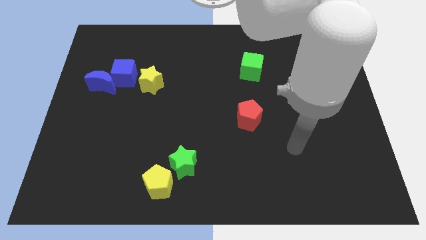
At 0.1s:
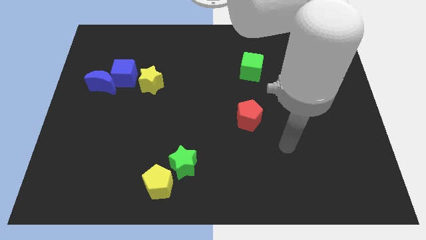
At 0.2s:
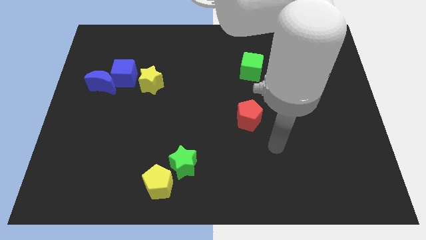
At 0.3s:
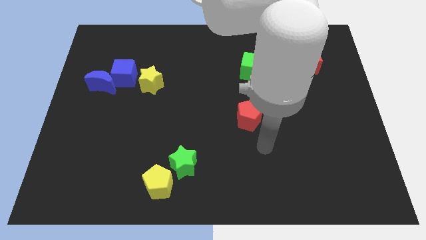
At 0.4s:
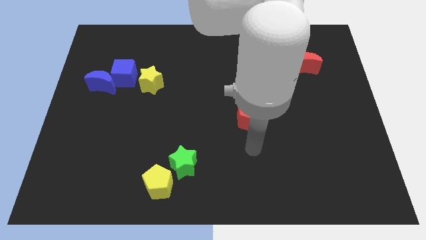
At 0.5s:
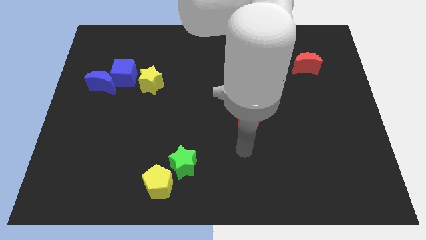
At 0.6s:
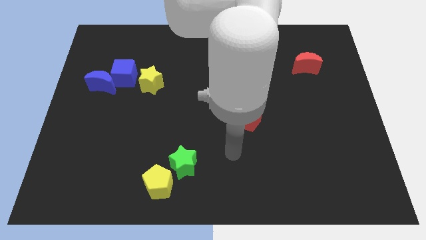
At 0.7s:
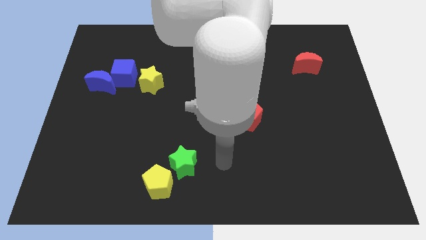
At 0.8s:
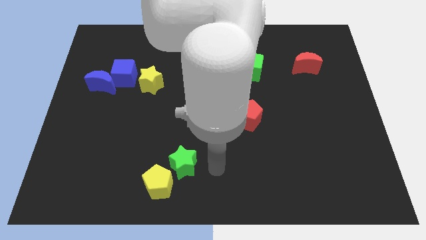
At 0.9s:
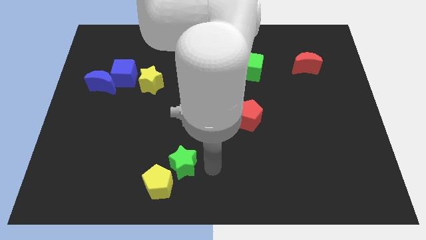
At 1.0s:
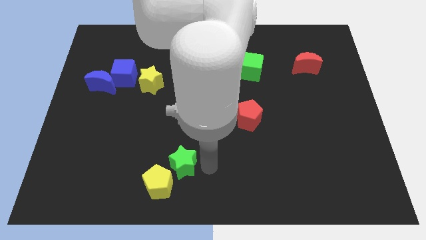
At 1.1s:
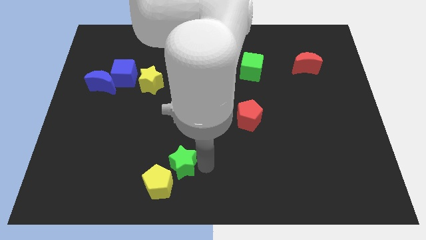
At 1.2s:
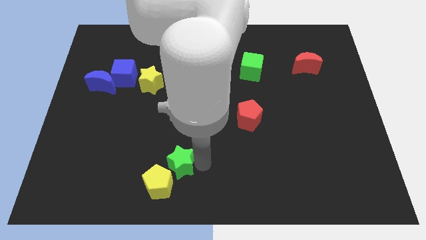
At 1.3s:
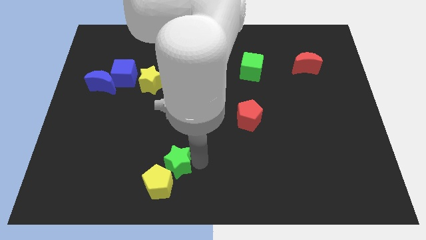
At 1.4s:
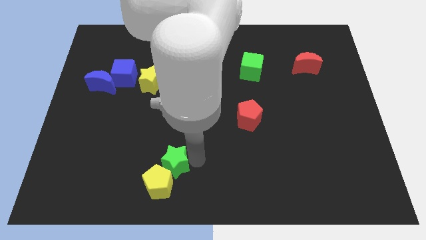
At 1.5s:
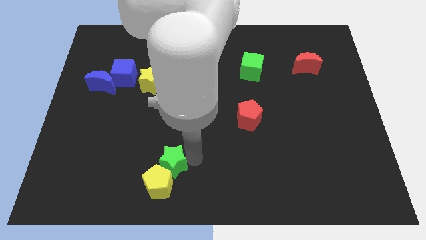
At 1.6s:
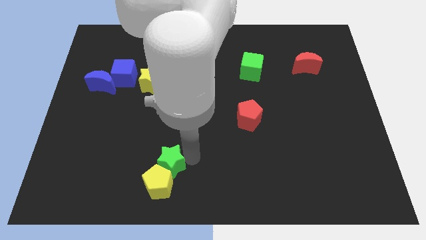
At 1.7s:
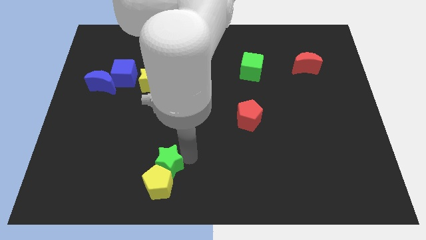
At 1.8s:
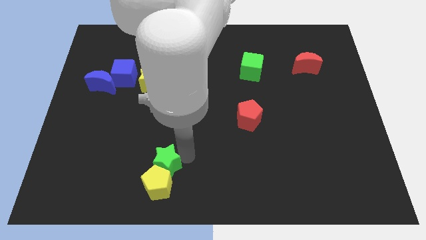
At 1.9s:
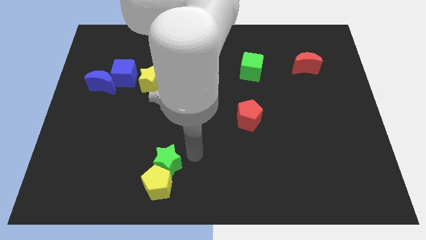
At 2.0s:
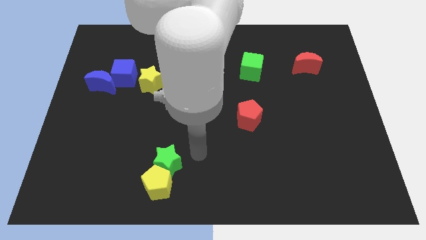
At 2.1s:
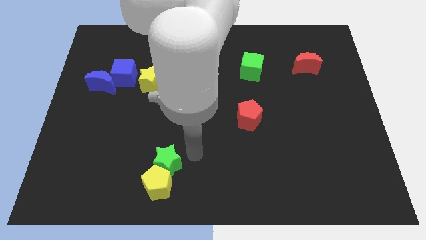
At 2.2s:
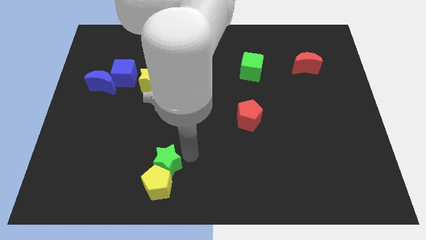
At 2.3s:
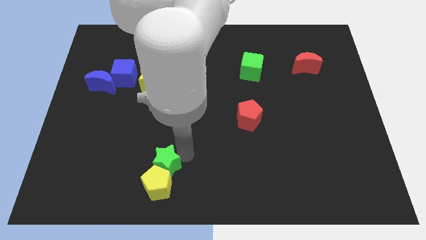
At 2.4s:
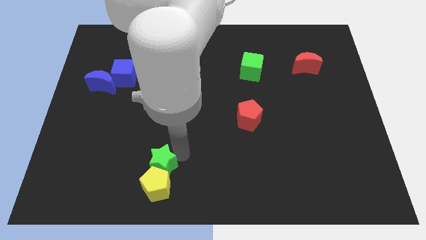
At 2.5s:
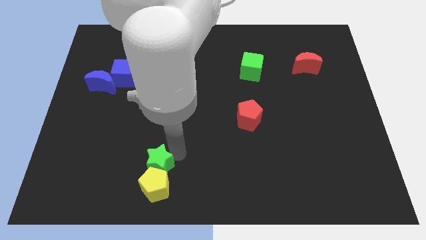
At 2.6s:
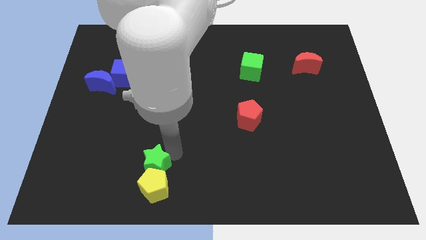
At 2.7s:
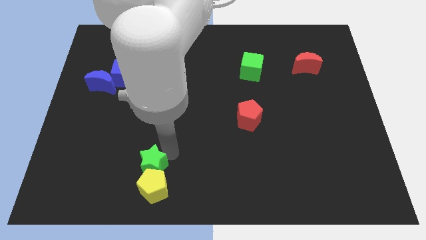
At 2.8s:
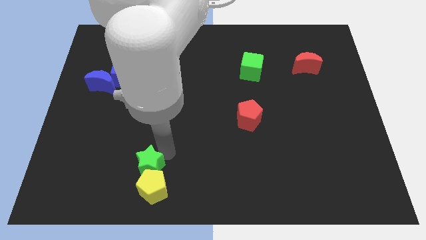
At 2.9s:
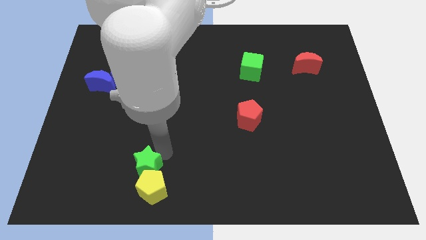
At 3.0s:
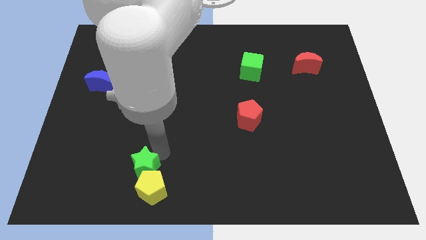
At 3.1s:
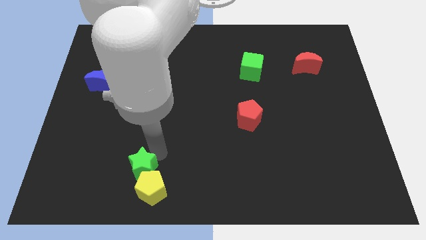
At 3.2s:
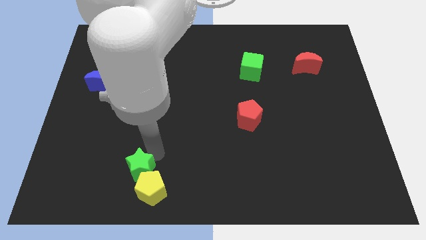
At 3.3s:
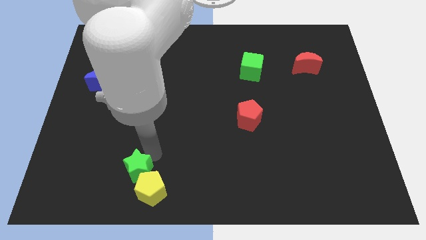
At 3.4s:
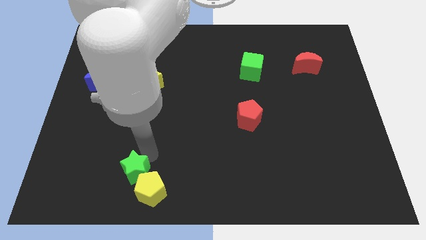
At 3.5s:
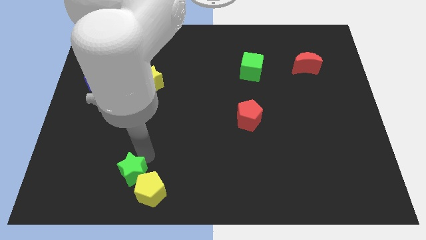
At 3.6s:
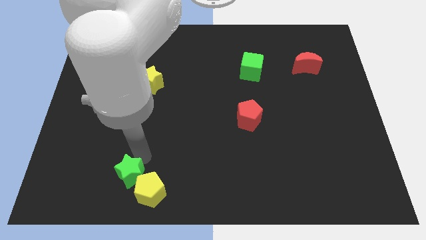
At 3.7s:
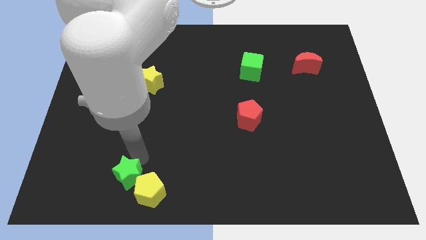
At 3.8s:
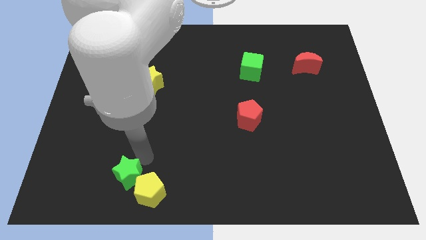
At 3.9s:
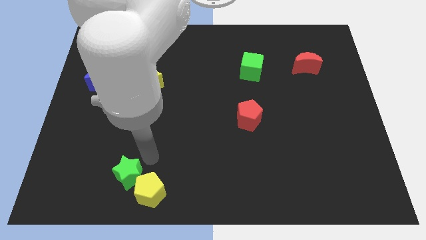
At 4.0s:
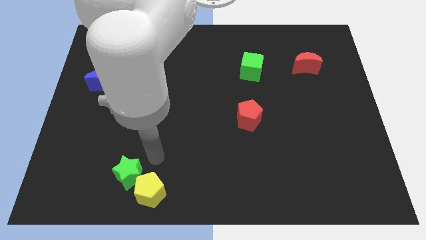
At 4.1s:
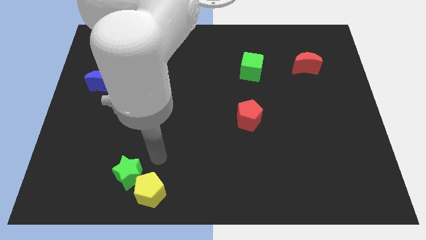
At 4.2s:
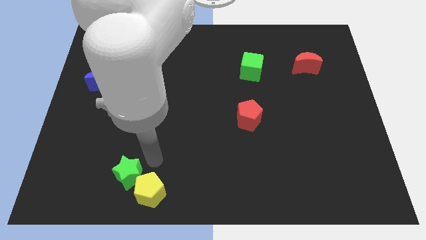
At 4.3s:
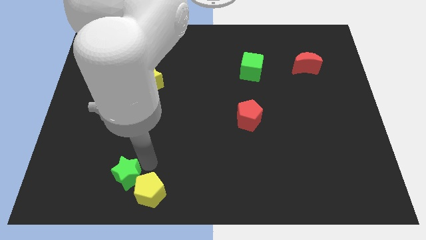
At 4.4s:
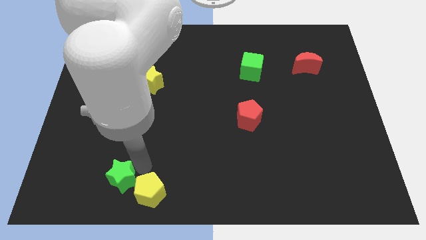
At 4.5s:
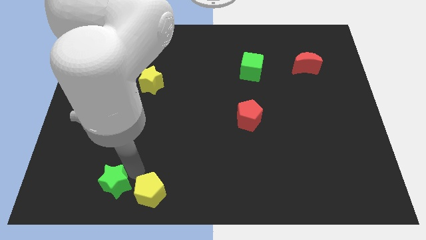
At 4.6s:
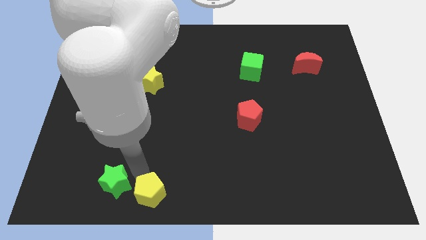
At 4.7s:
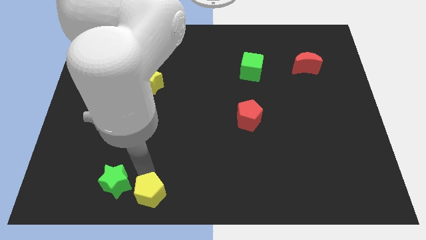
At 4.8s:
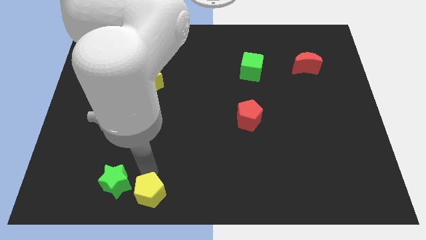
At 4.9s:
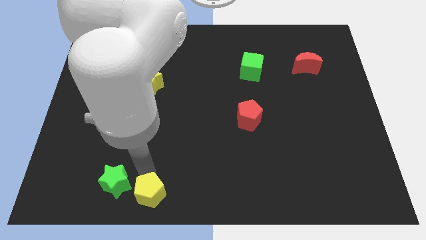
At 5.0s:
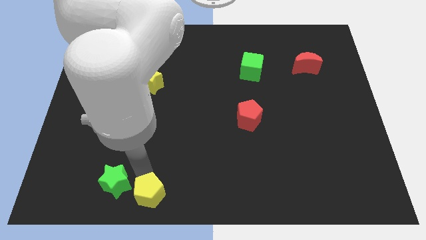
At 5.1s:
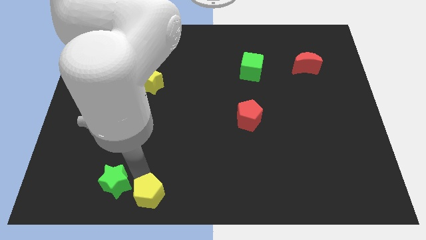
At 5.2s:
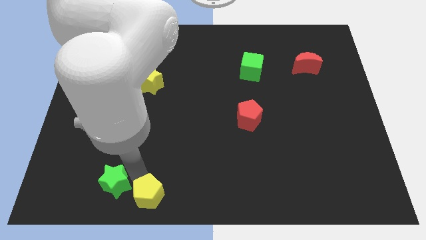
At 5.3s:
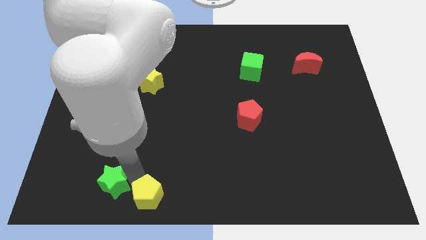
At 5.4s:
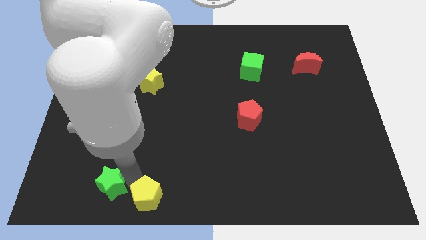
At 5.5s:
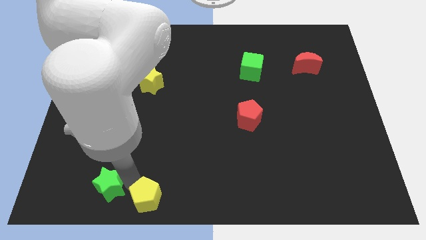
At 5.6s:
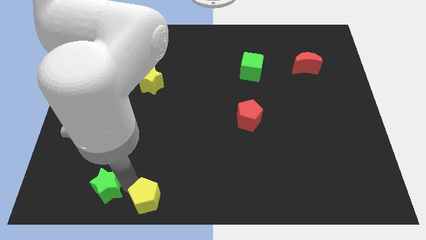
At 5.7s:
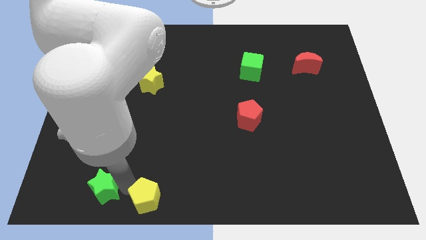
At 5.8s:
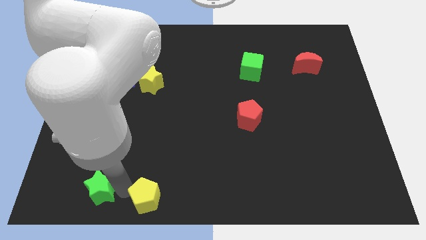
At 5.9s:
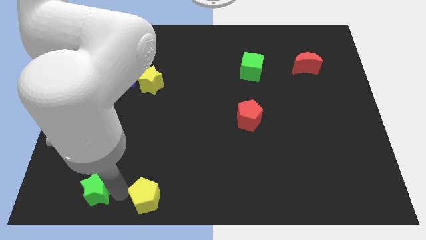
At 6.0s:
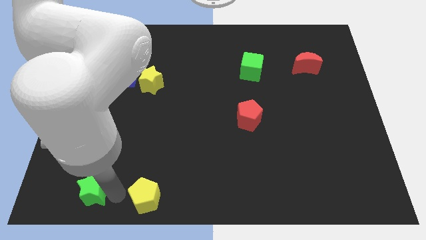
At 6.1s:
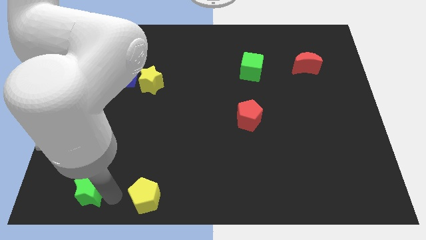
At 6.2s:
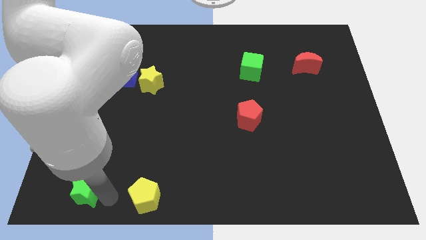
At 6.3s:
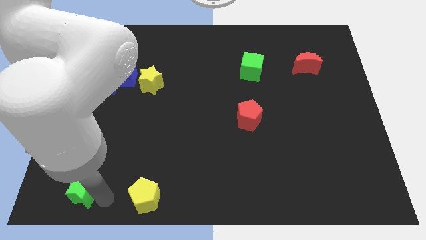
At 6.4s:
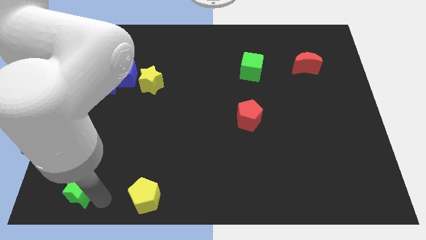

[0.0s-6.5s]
push the green star to the lower left corner
